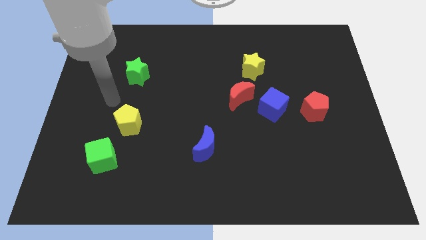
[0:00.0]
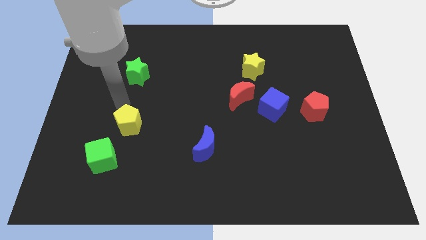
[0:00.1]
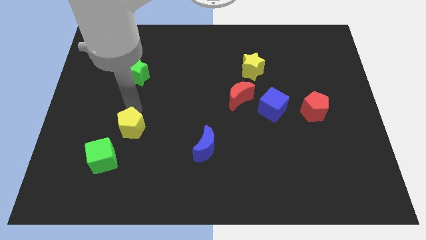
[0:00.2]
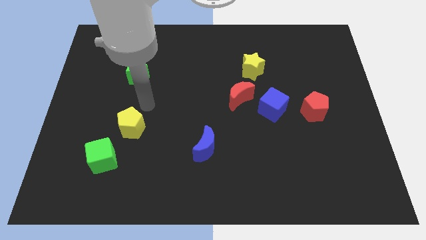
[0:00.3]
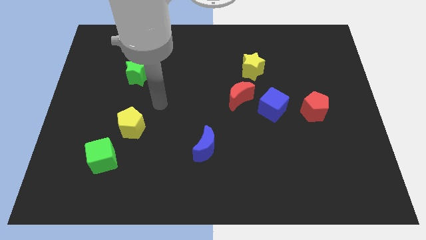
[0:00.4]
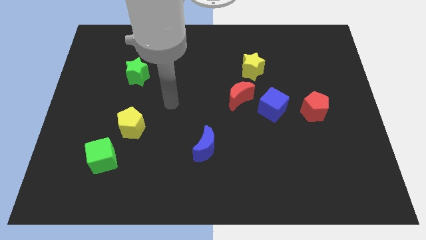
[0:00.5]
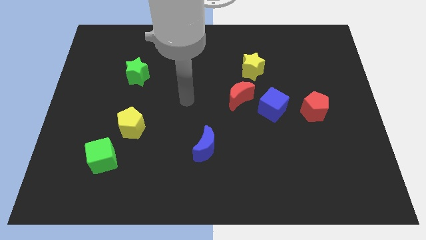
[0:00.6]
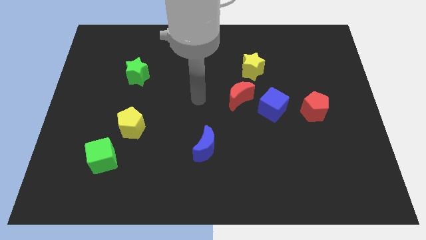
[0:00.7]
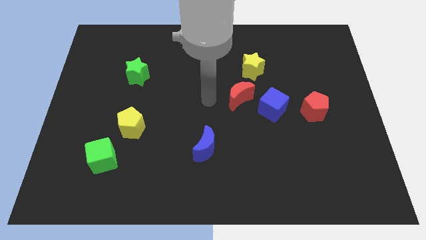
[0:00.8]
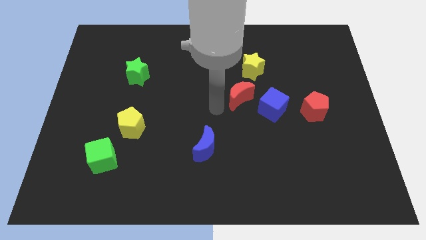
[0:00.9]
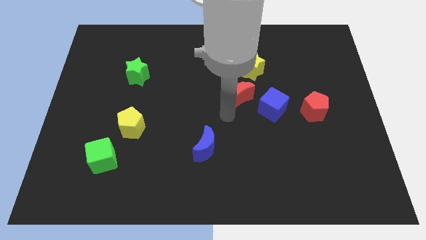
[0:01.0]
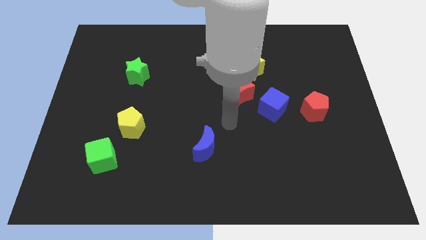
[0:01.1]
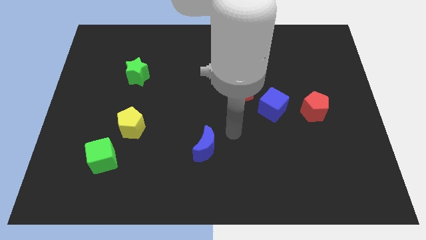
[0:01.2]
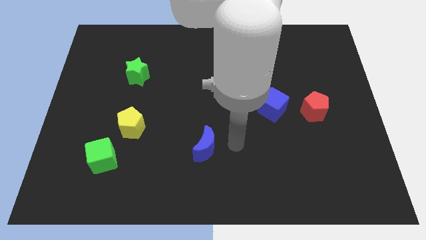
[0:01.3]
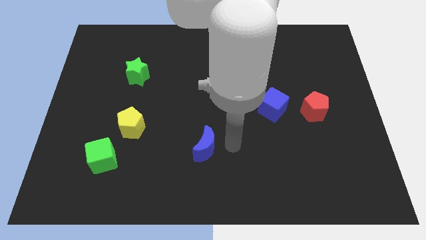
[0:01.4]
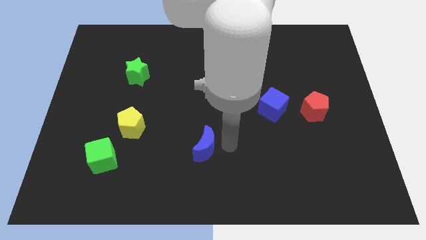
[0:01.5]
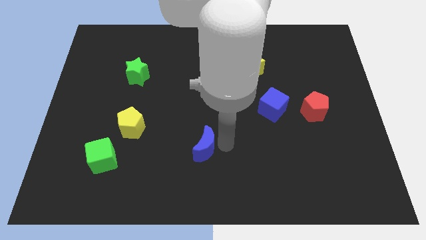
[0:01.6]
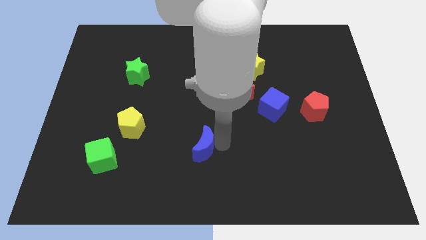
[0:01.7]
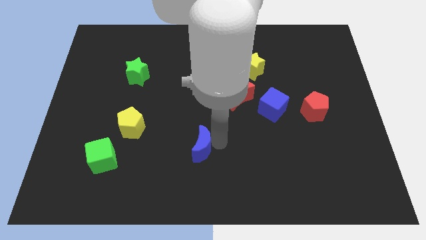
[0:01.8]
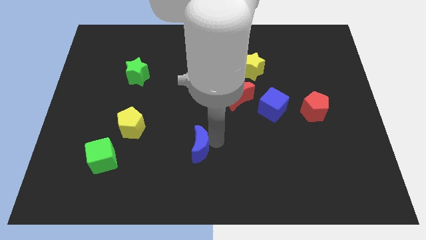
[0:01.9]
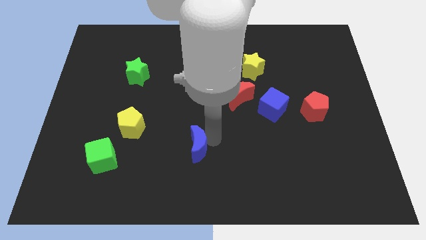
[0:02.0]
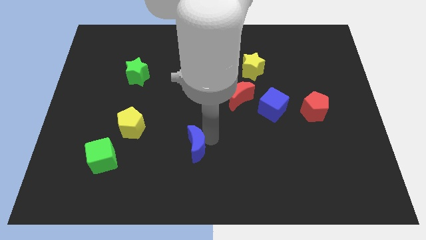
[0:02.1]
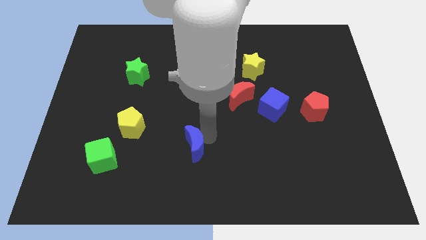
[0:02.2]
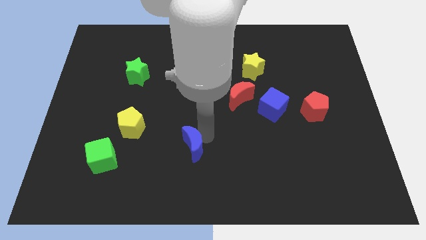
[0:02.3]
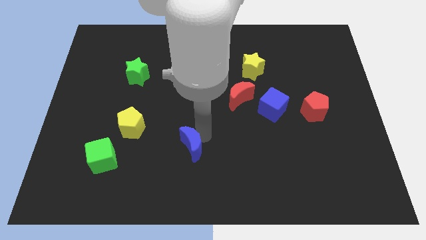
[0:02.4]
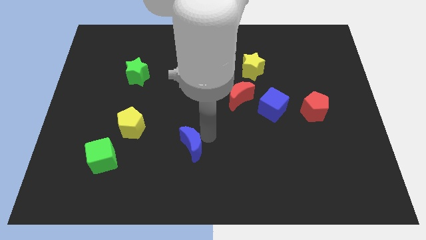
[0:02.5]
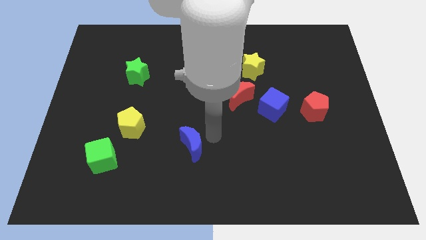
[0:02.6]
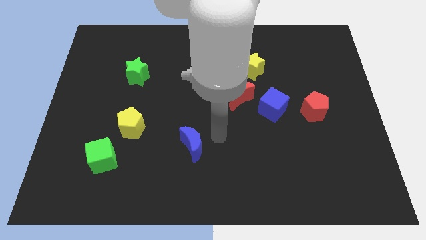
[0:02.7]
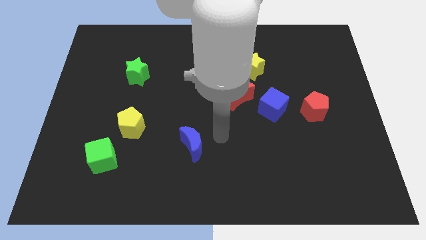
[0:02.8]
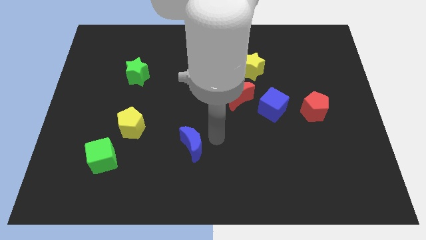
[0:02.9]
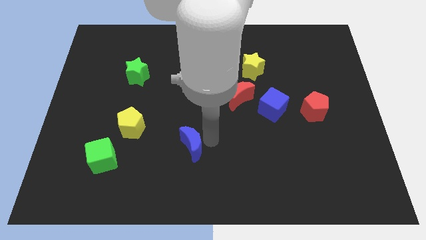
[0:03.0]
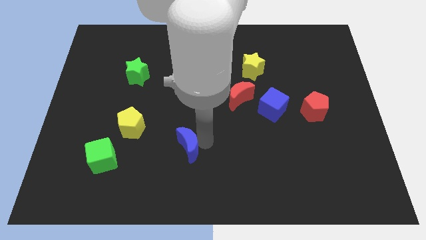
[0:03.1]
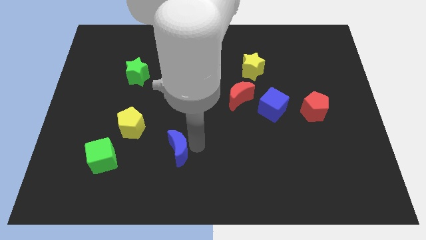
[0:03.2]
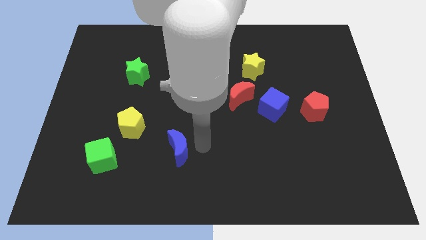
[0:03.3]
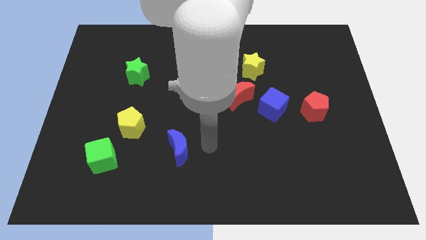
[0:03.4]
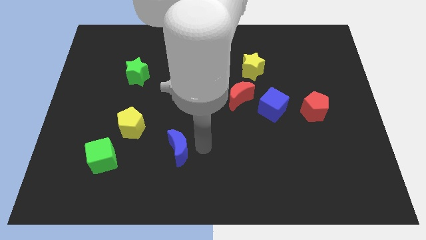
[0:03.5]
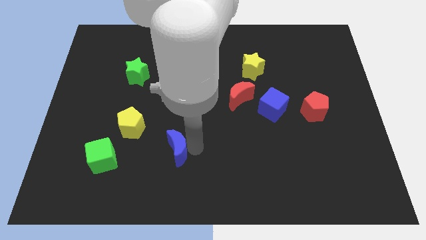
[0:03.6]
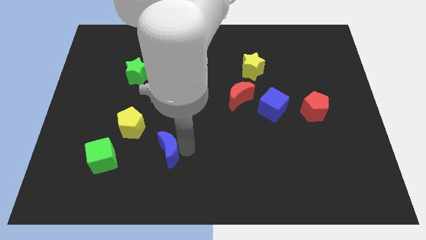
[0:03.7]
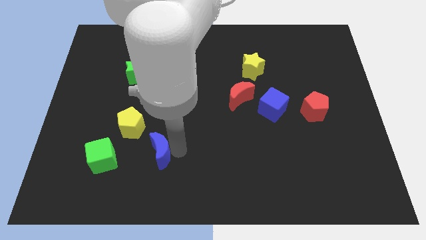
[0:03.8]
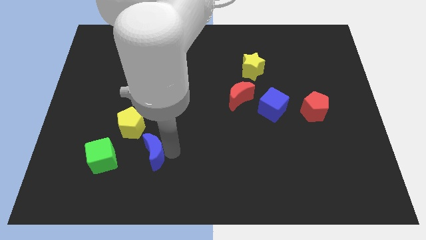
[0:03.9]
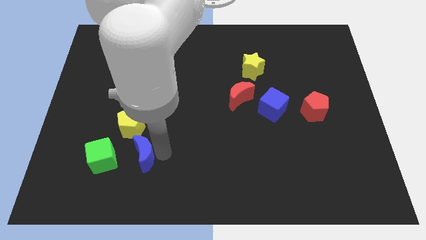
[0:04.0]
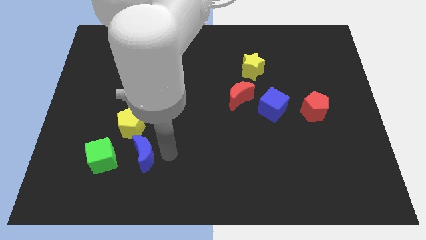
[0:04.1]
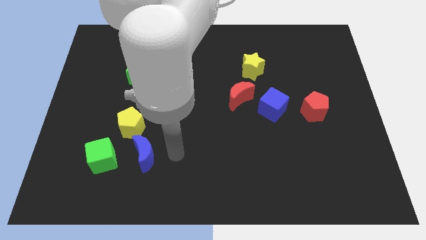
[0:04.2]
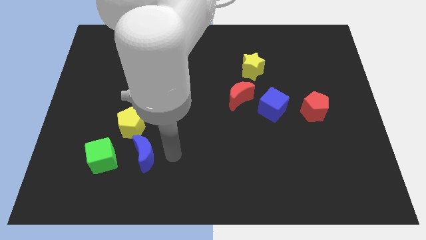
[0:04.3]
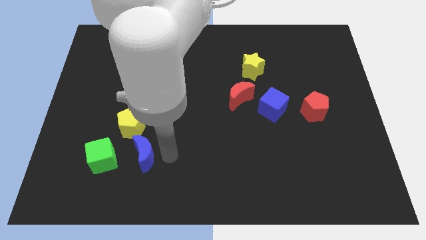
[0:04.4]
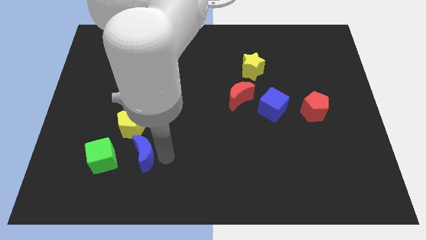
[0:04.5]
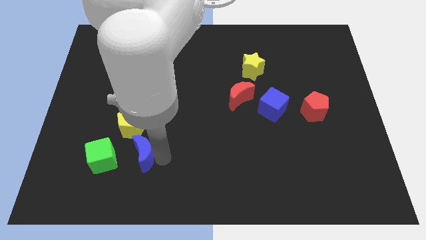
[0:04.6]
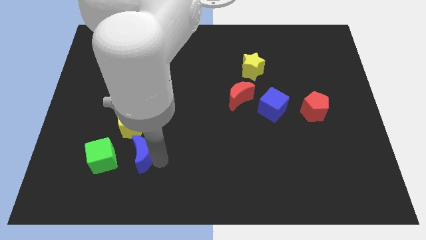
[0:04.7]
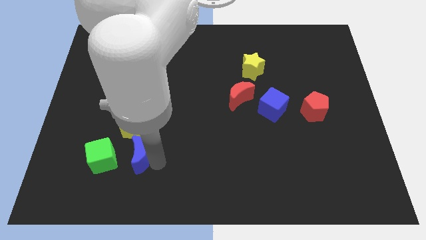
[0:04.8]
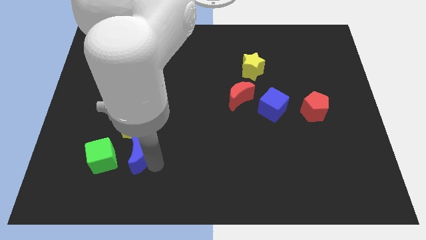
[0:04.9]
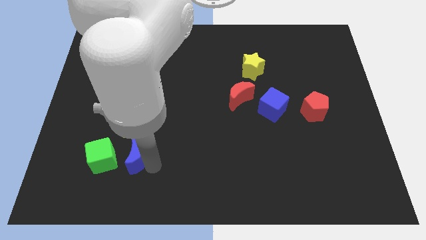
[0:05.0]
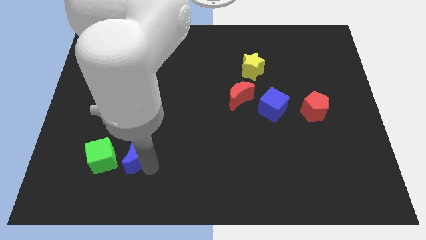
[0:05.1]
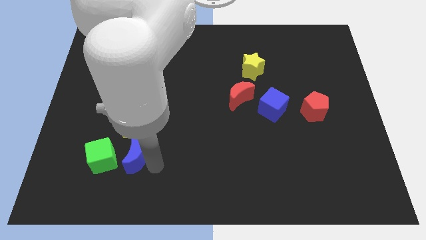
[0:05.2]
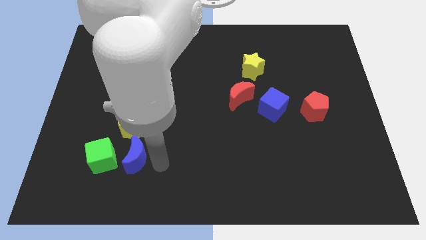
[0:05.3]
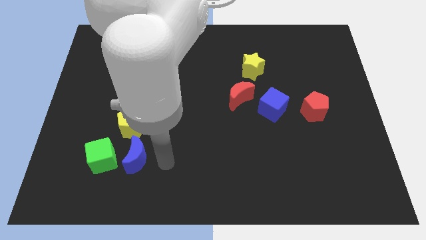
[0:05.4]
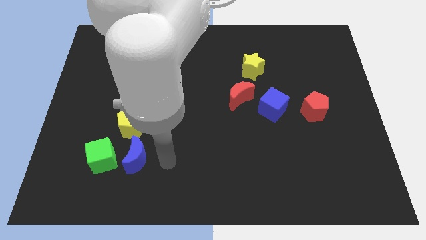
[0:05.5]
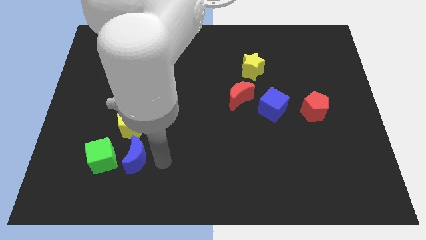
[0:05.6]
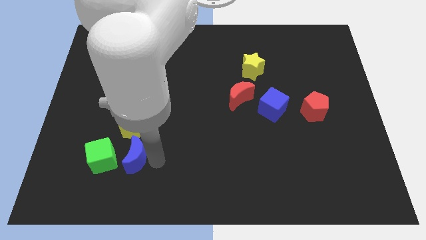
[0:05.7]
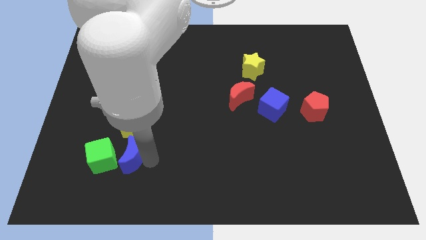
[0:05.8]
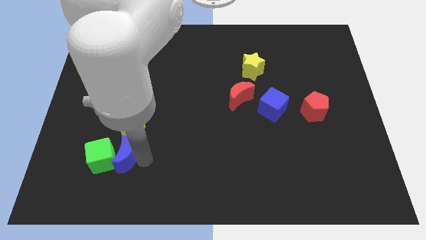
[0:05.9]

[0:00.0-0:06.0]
slide the blue moon close to the green cube

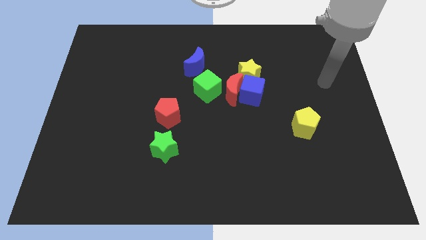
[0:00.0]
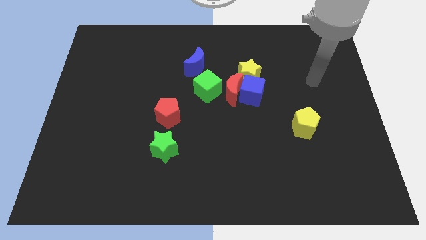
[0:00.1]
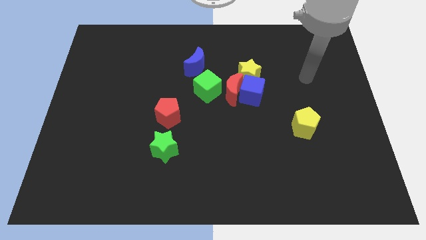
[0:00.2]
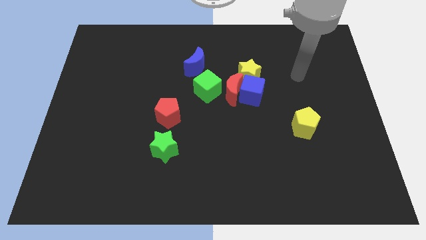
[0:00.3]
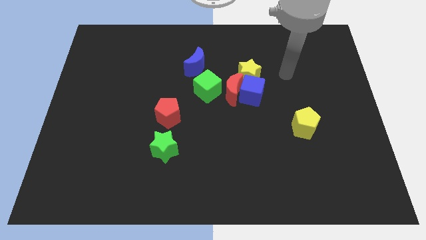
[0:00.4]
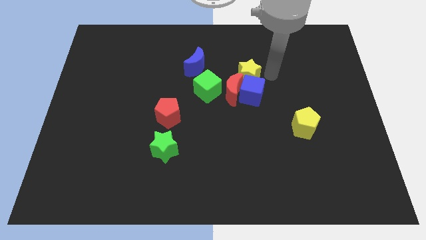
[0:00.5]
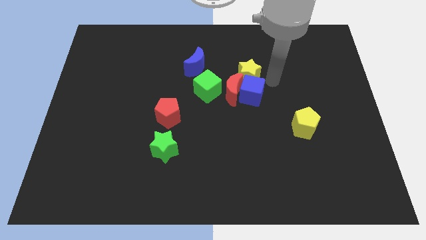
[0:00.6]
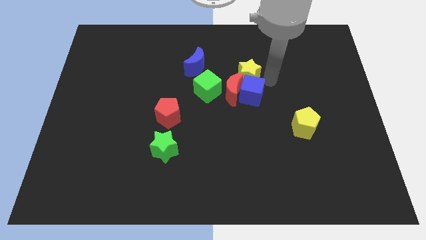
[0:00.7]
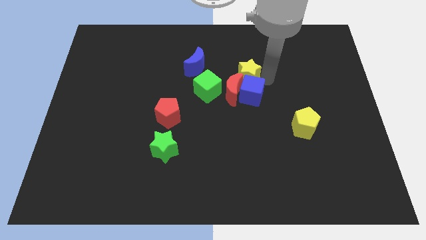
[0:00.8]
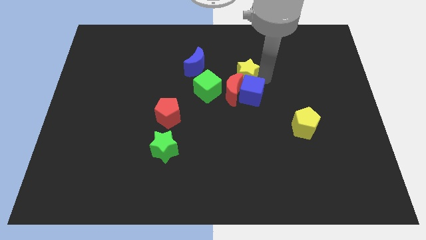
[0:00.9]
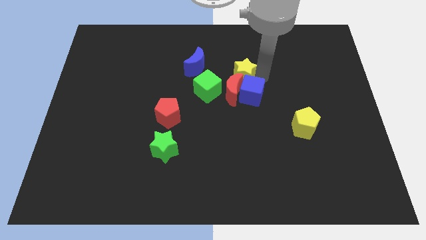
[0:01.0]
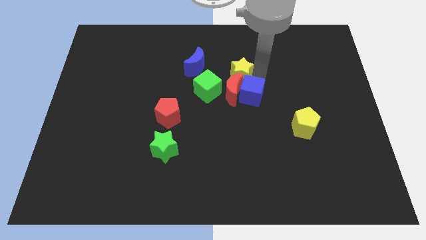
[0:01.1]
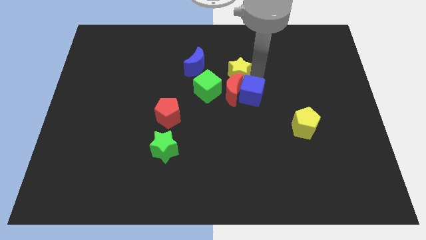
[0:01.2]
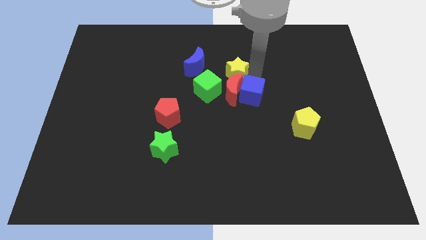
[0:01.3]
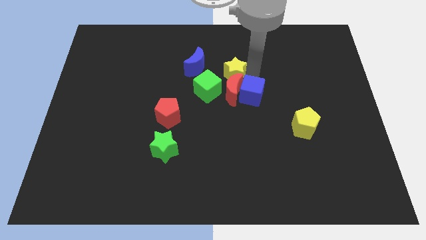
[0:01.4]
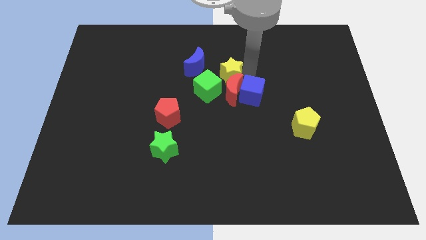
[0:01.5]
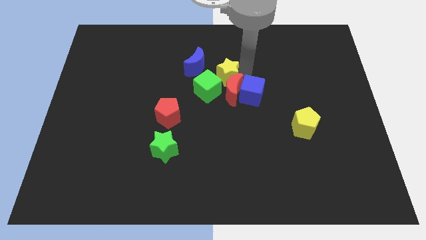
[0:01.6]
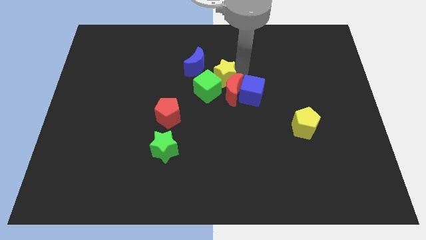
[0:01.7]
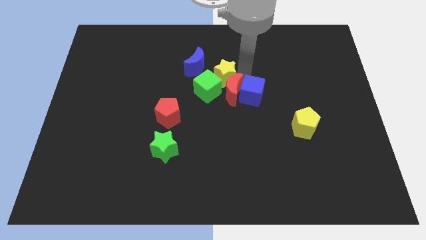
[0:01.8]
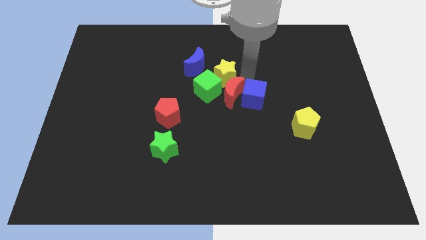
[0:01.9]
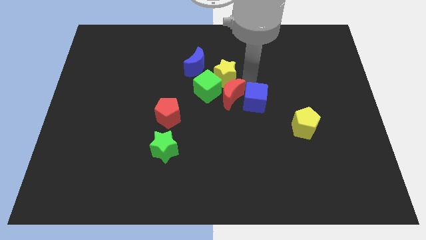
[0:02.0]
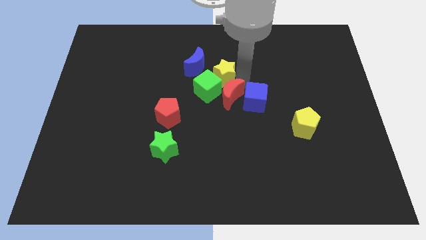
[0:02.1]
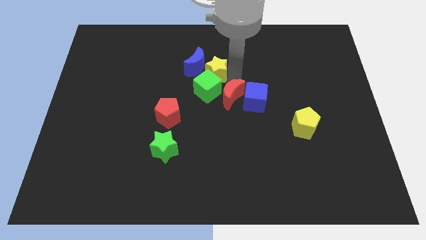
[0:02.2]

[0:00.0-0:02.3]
push the yellow star to the blue moon
